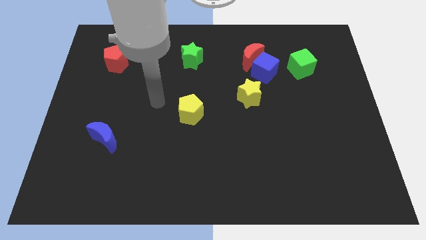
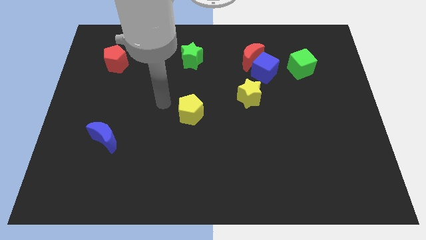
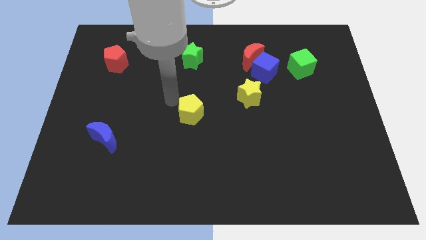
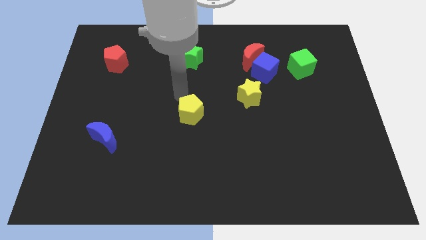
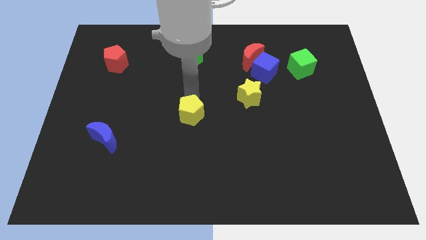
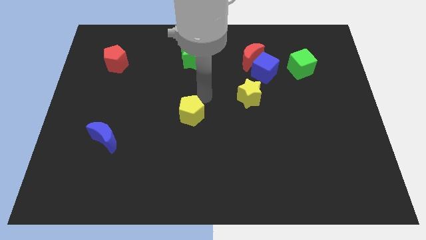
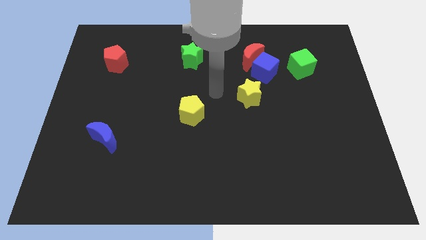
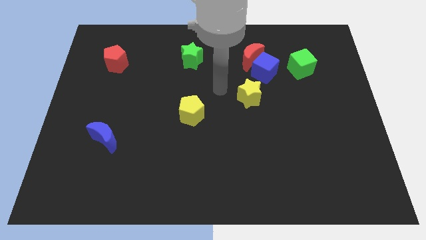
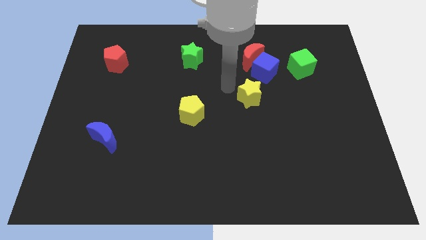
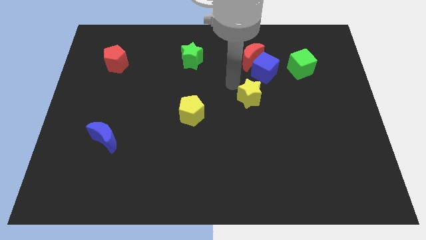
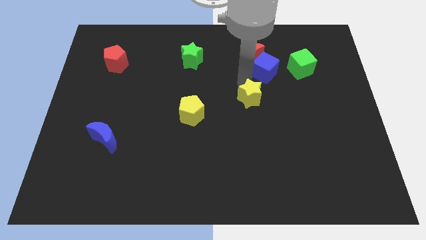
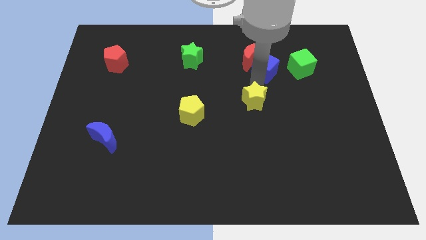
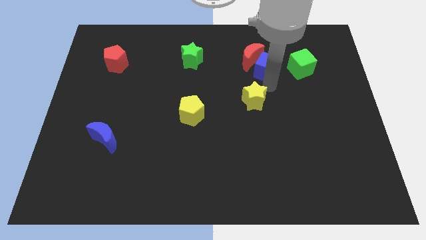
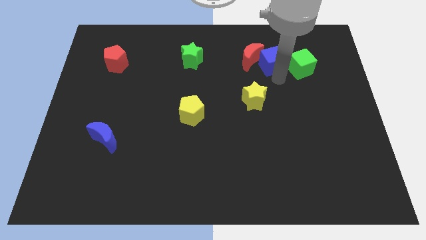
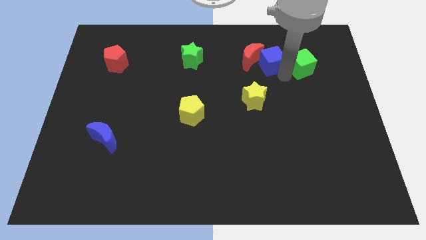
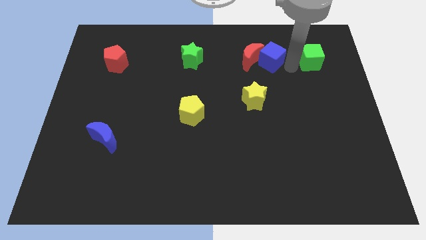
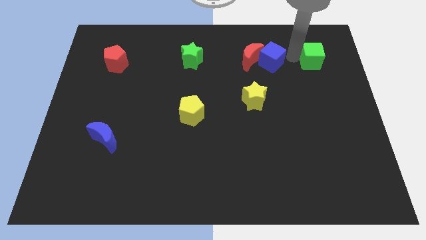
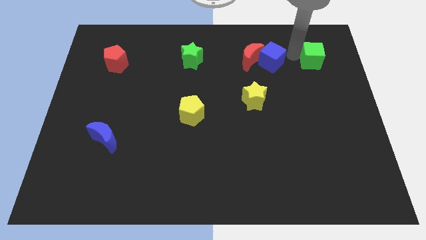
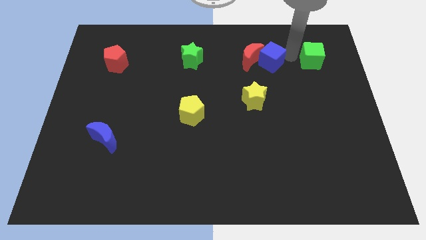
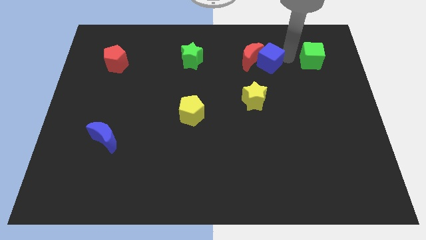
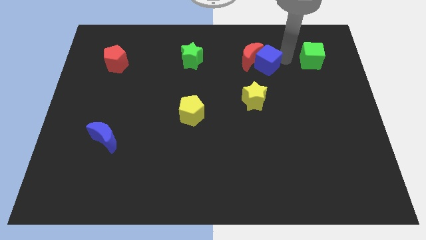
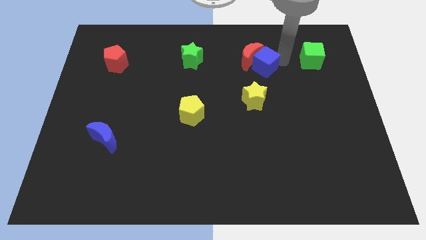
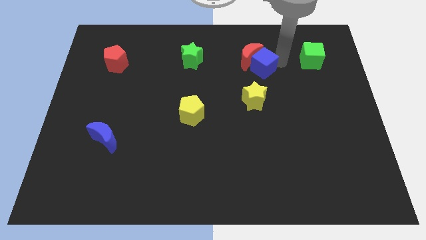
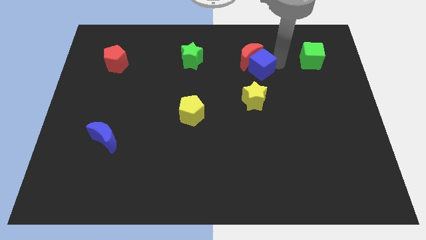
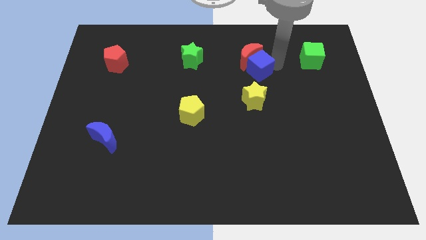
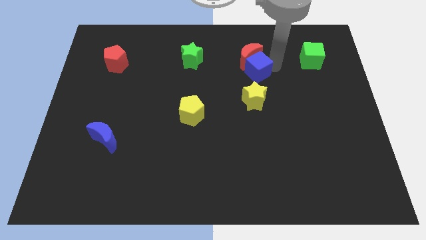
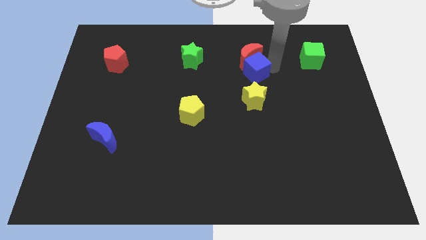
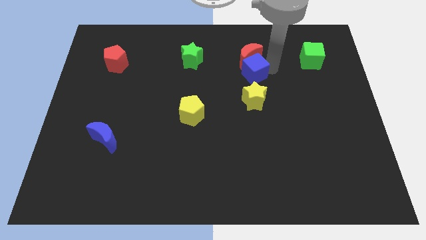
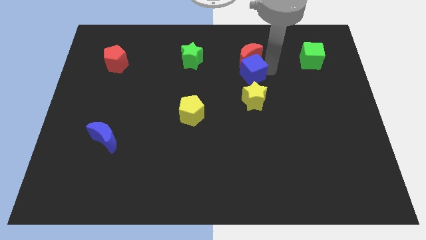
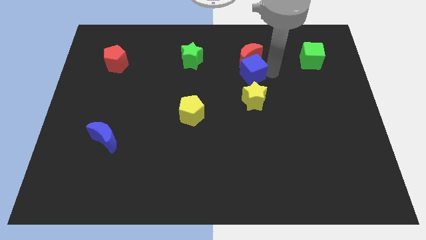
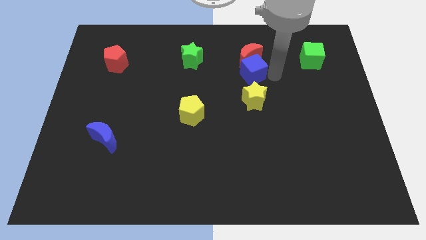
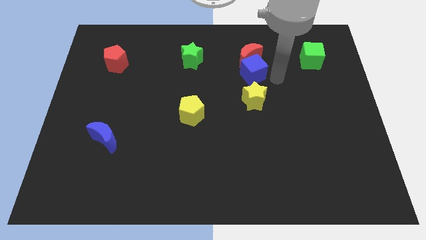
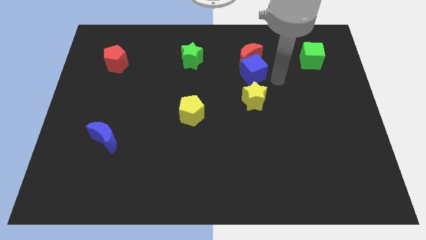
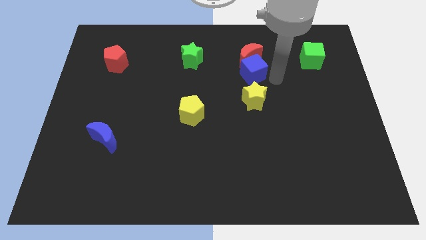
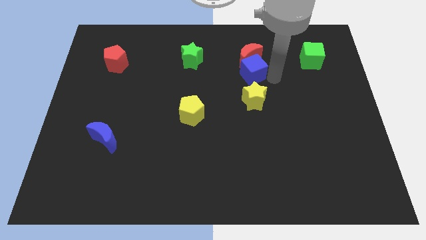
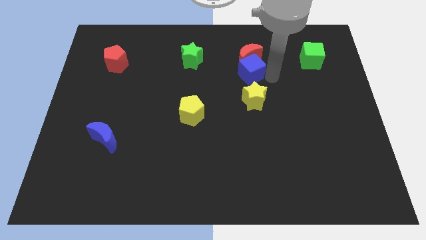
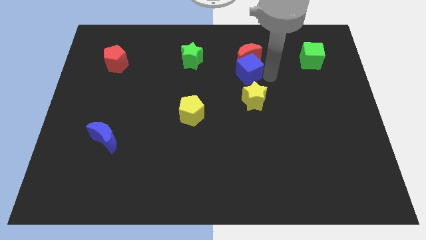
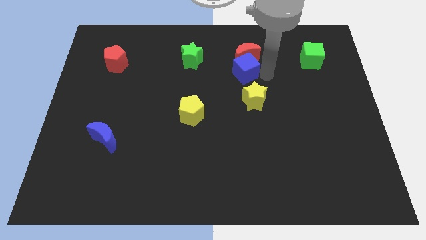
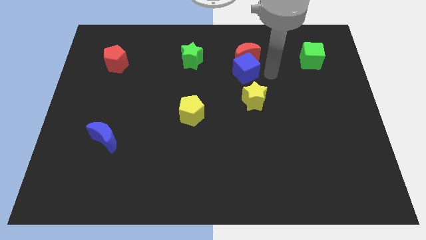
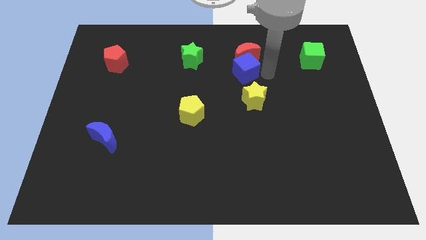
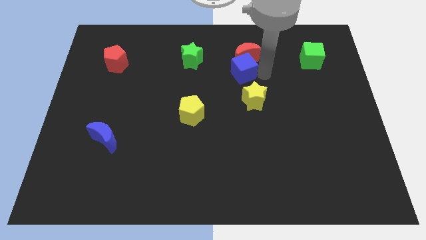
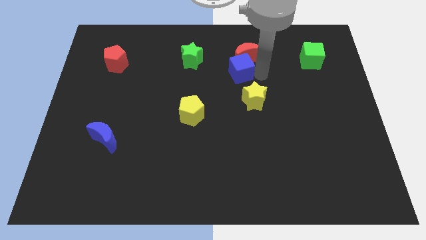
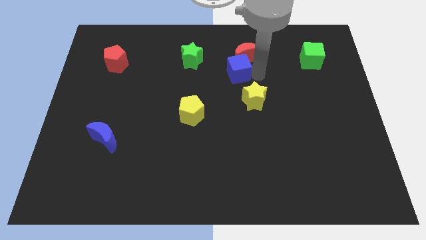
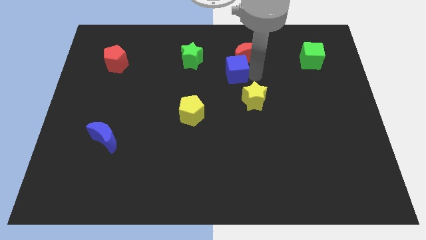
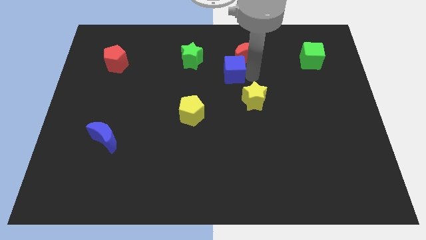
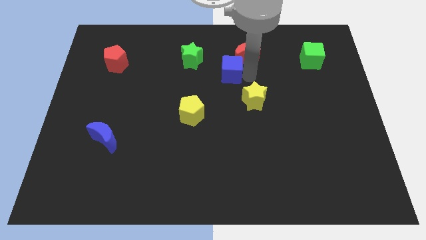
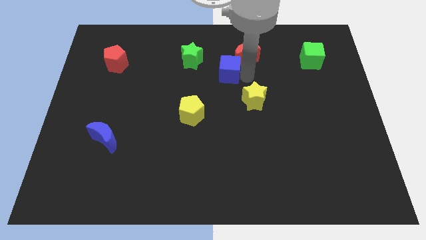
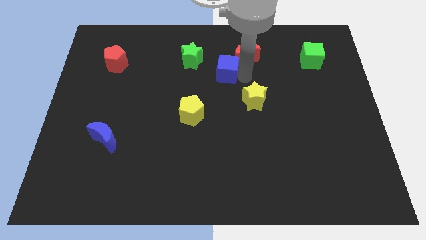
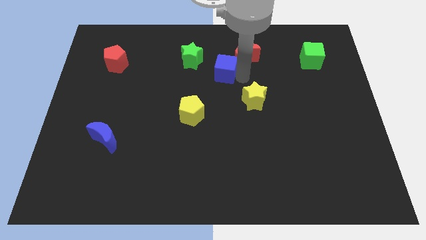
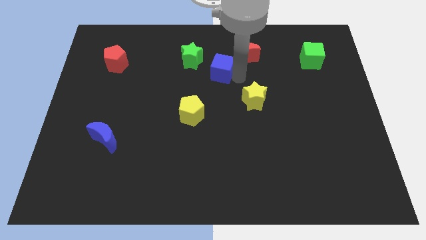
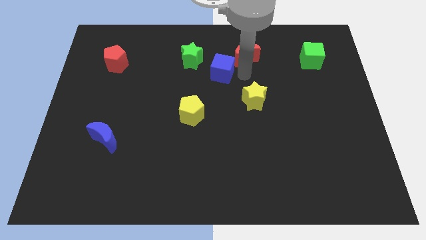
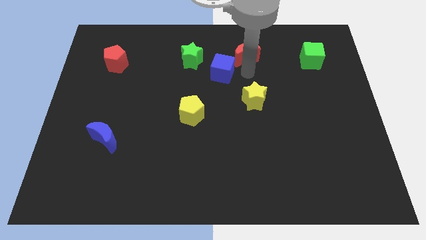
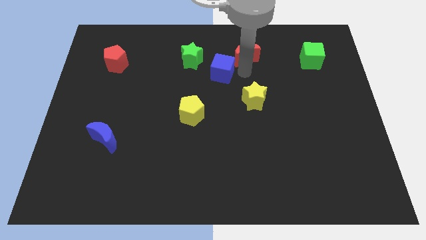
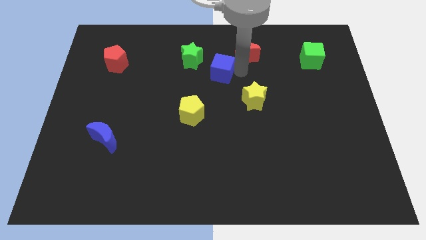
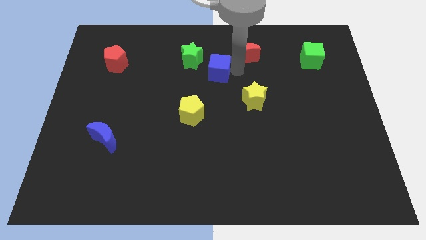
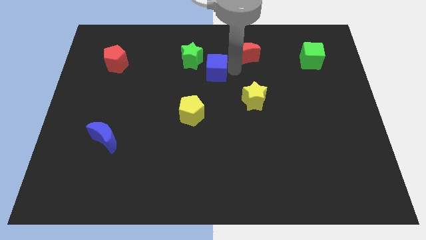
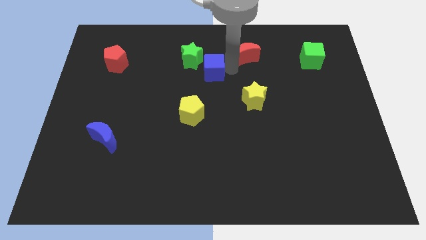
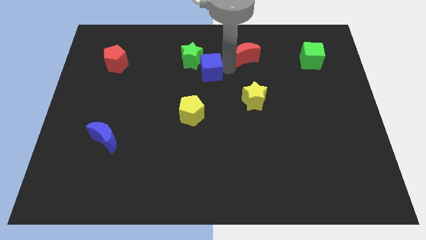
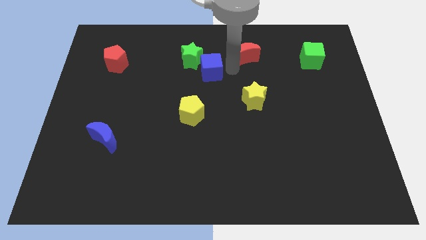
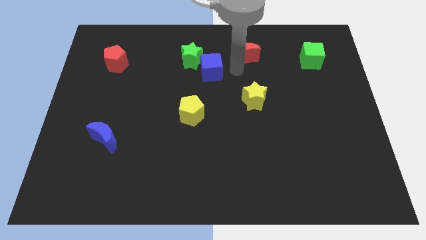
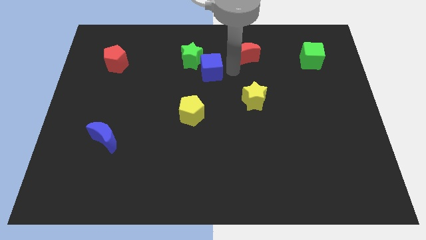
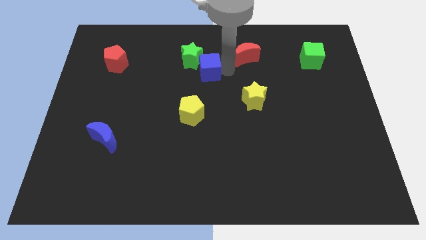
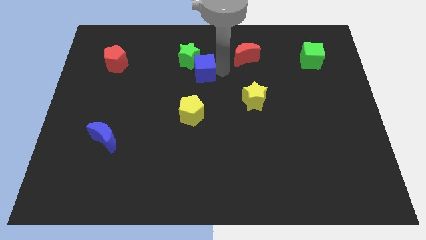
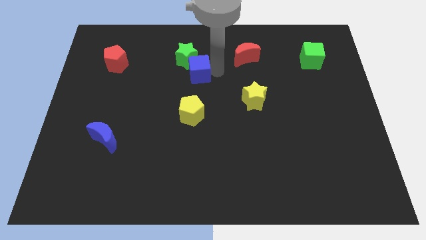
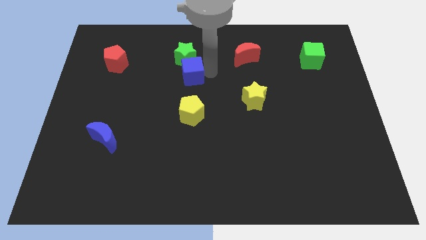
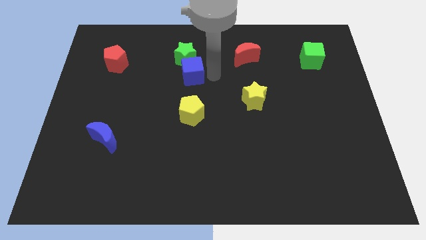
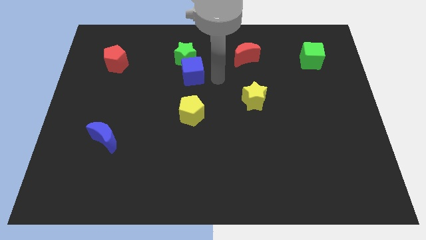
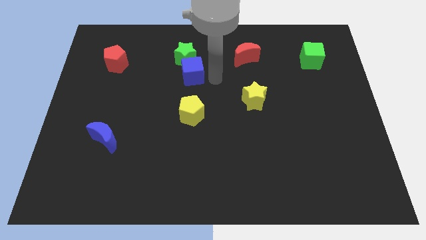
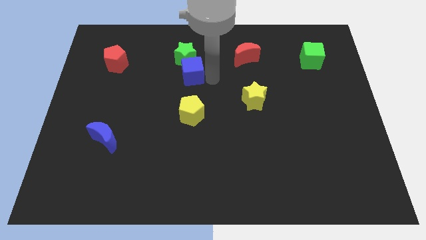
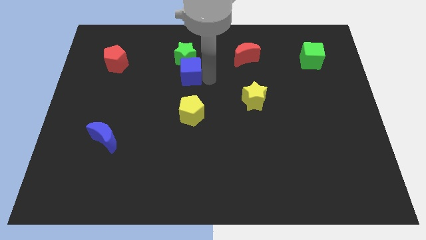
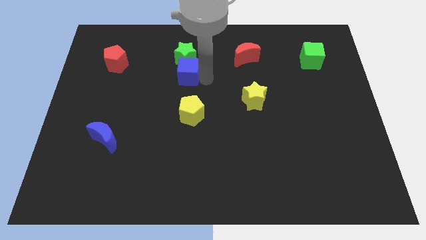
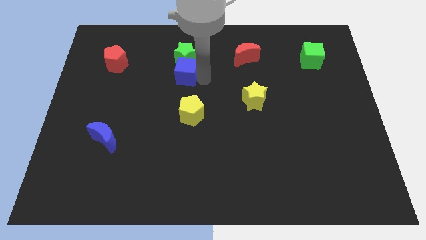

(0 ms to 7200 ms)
push the blue cube left

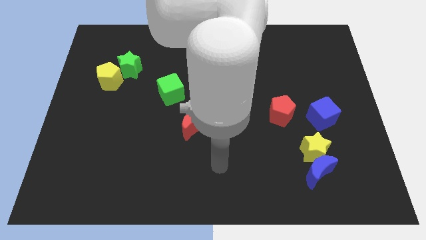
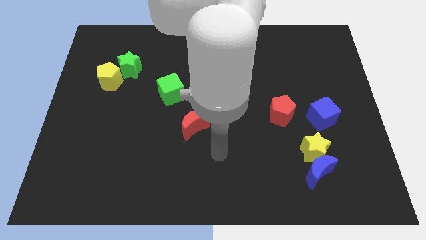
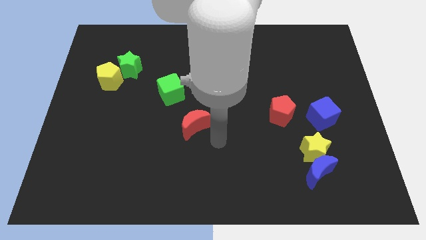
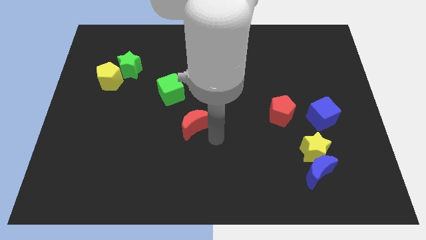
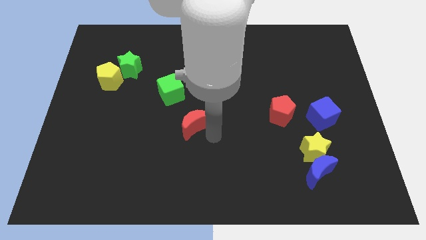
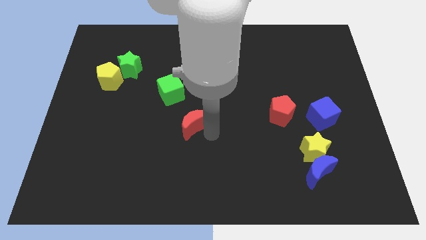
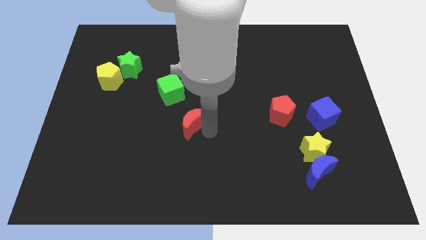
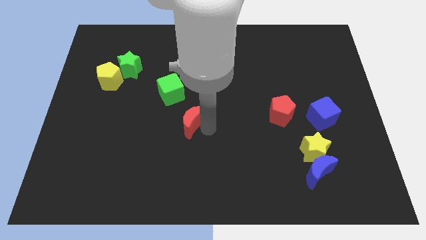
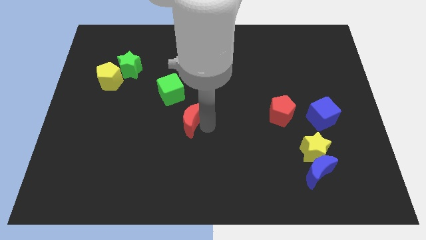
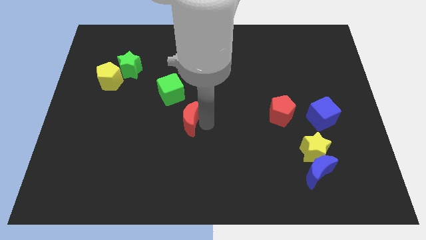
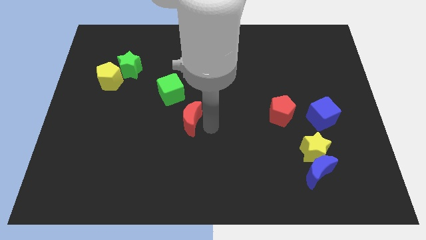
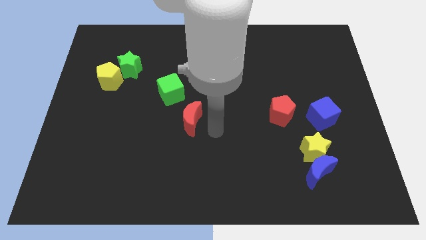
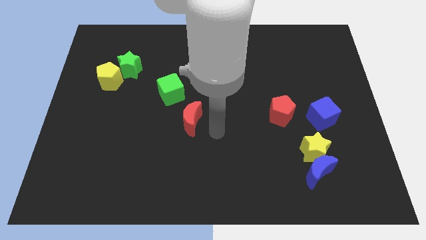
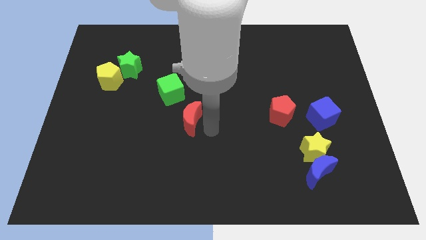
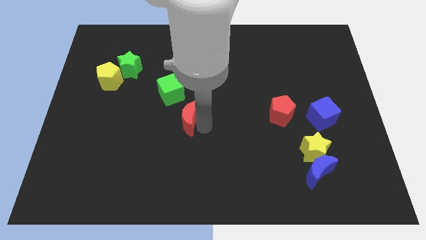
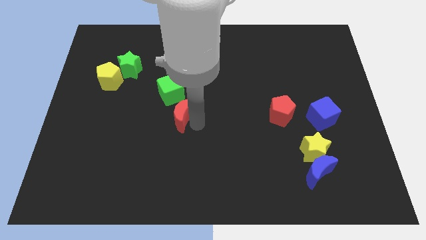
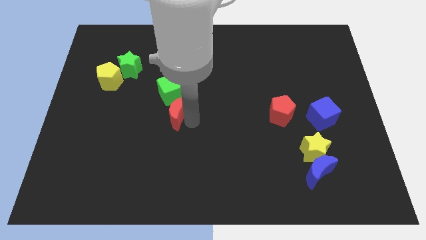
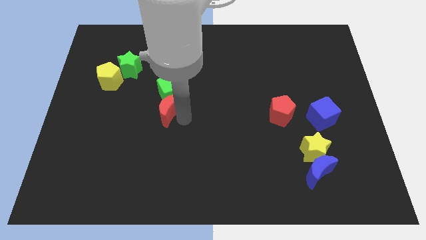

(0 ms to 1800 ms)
slightly move the red moon diagonally upwards and left
